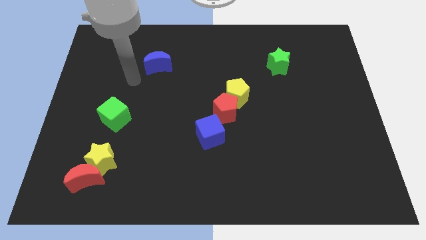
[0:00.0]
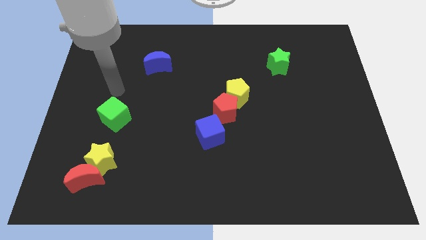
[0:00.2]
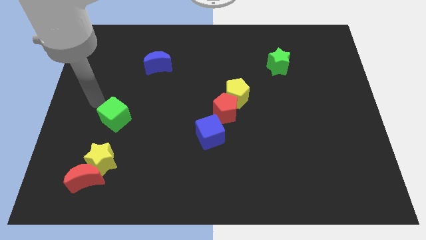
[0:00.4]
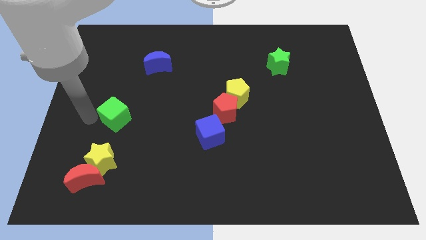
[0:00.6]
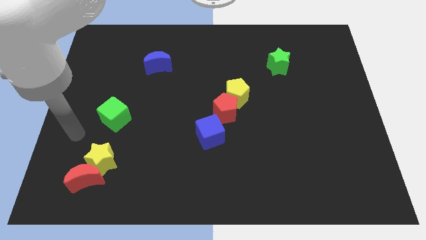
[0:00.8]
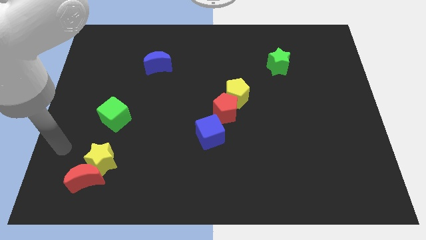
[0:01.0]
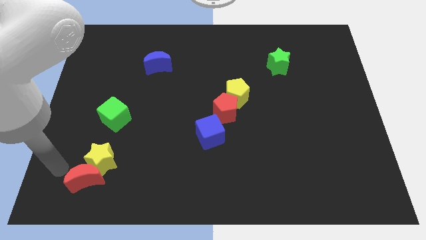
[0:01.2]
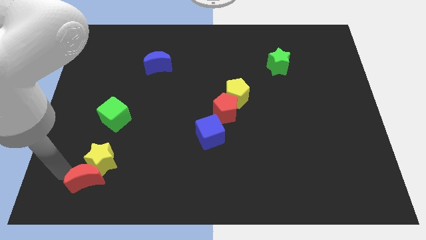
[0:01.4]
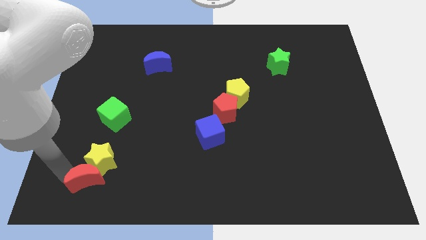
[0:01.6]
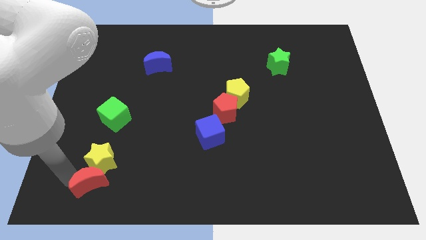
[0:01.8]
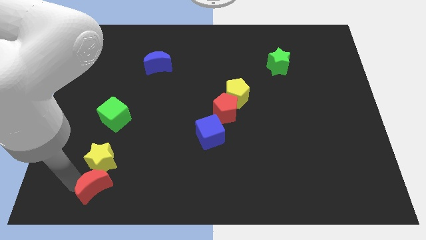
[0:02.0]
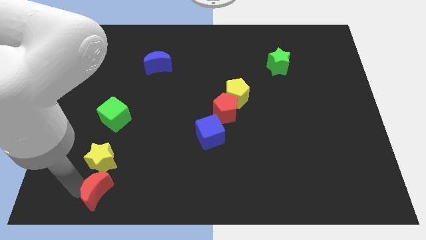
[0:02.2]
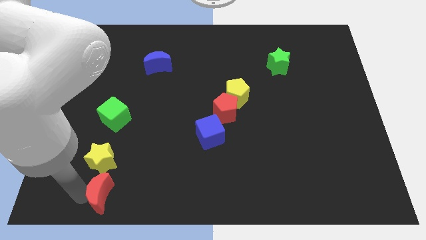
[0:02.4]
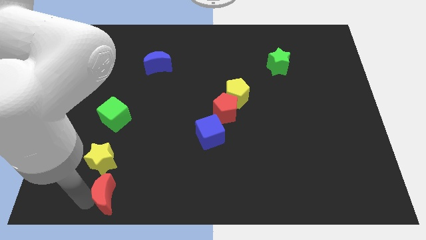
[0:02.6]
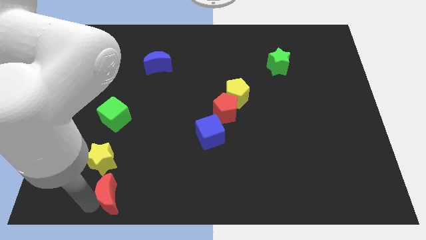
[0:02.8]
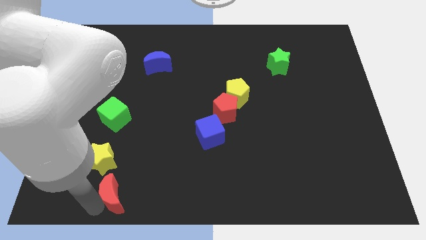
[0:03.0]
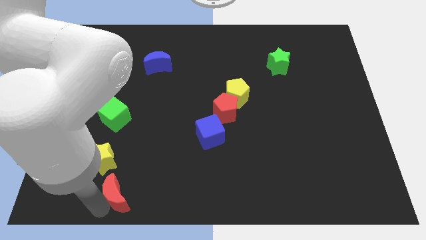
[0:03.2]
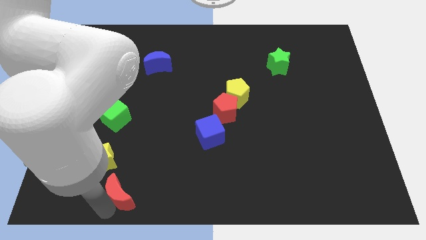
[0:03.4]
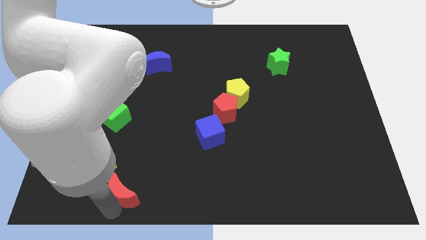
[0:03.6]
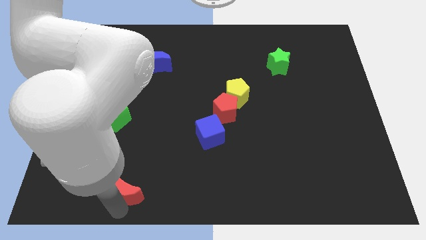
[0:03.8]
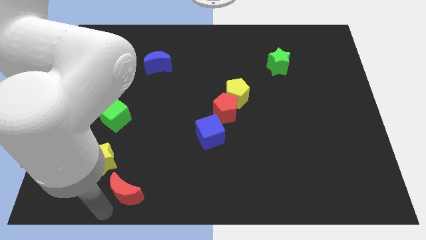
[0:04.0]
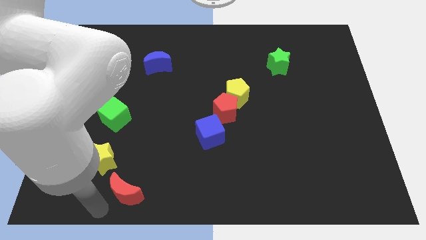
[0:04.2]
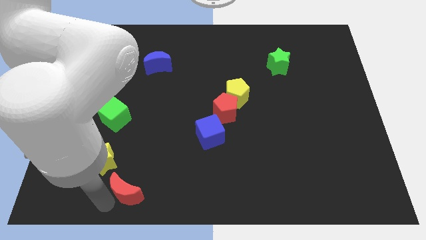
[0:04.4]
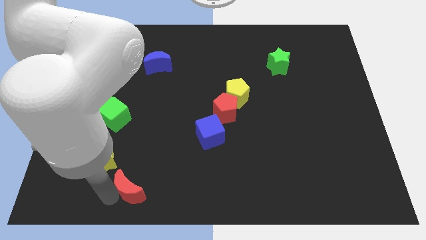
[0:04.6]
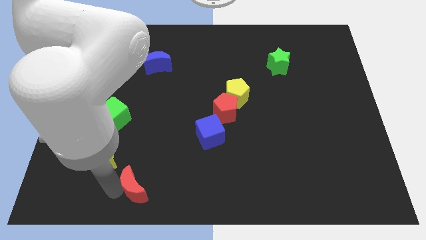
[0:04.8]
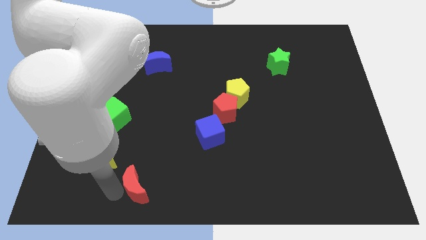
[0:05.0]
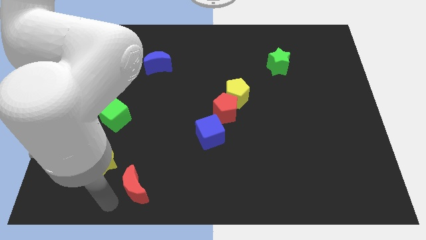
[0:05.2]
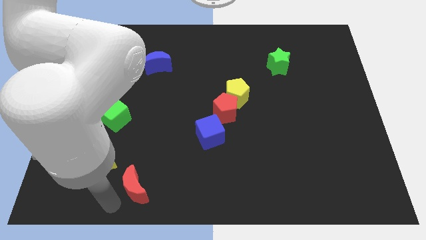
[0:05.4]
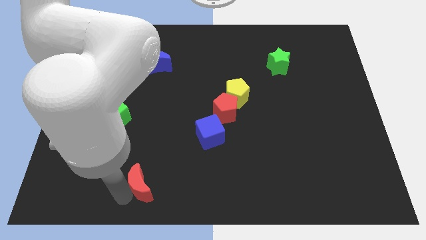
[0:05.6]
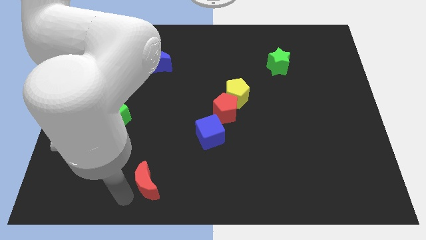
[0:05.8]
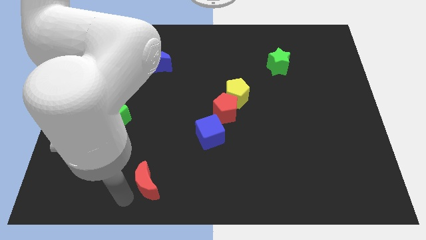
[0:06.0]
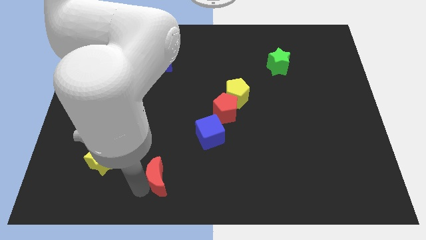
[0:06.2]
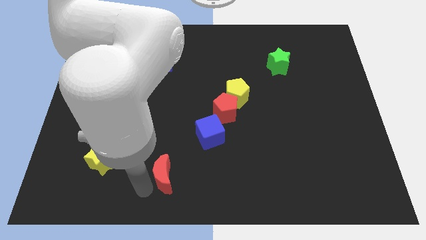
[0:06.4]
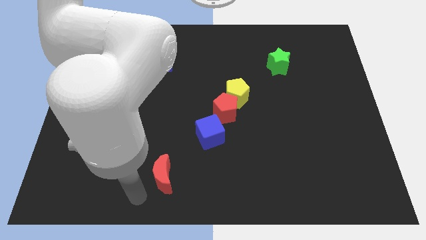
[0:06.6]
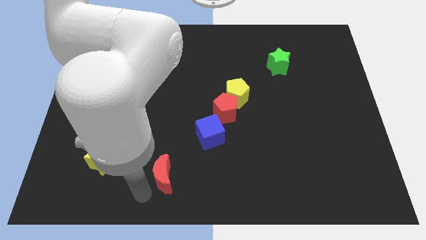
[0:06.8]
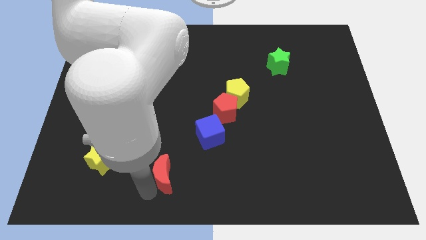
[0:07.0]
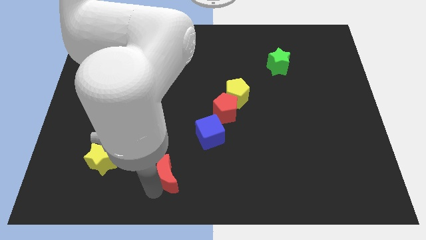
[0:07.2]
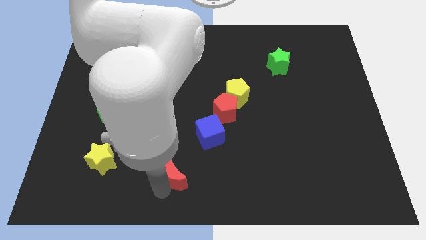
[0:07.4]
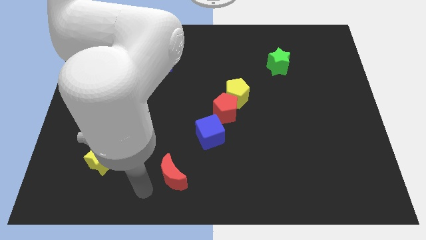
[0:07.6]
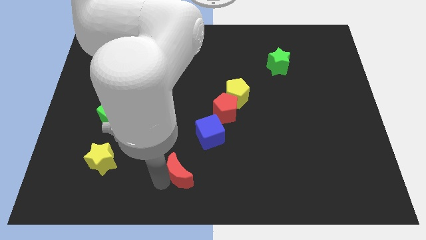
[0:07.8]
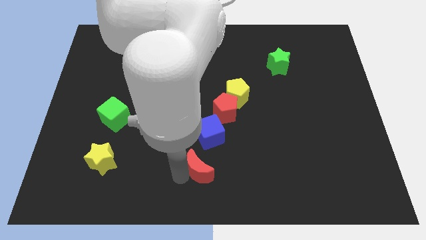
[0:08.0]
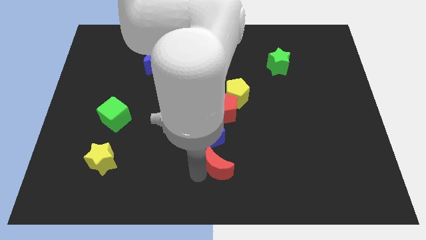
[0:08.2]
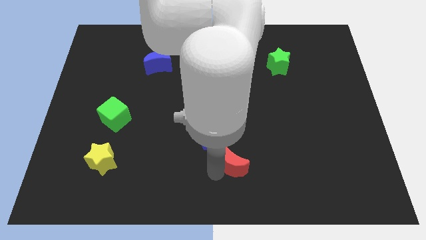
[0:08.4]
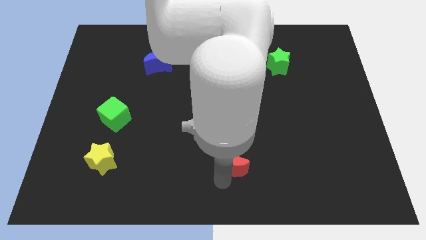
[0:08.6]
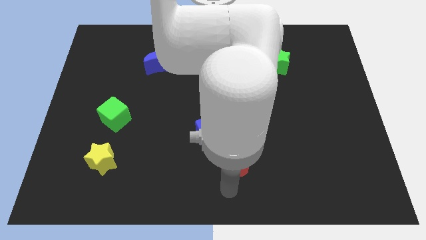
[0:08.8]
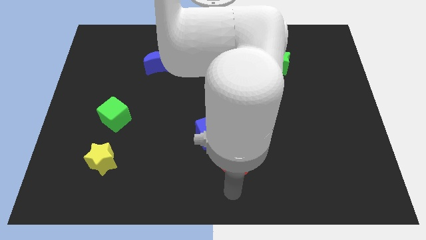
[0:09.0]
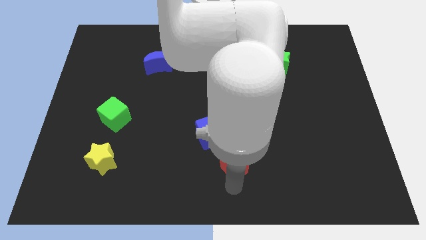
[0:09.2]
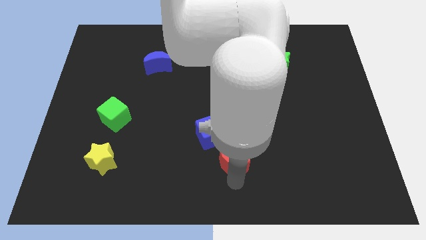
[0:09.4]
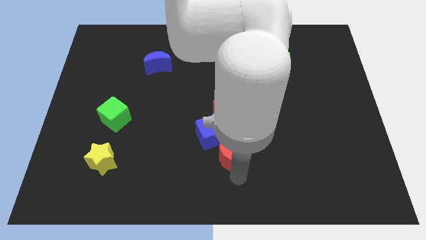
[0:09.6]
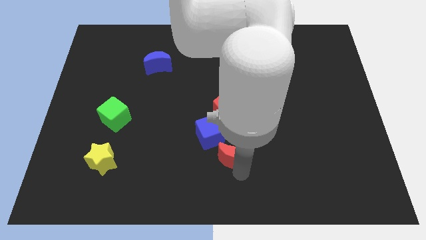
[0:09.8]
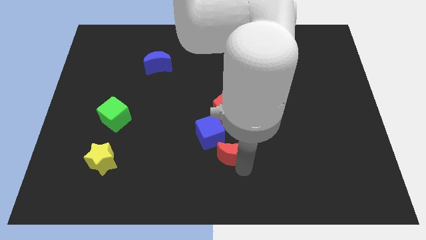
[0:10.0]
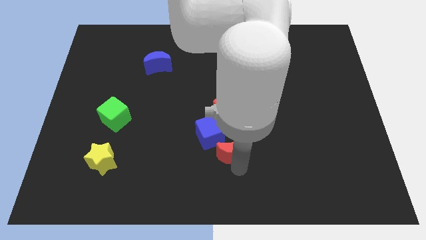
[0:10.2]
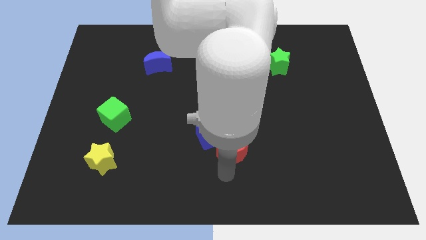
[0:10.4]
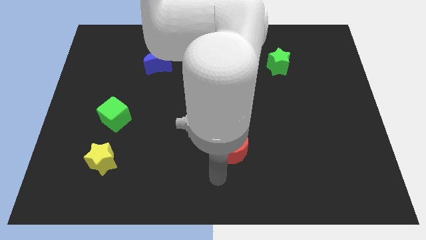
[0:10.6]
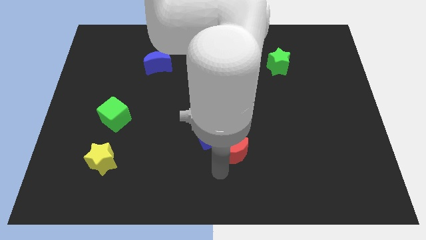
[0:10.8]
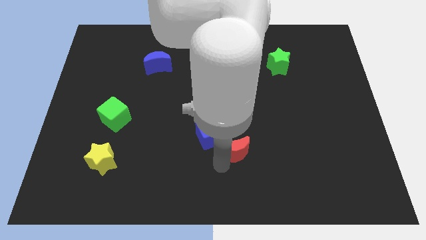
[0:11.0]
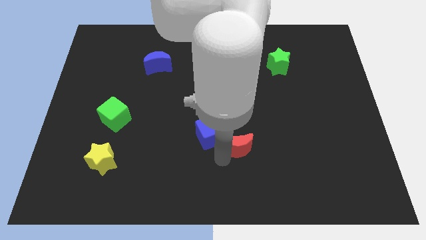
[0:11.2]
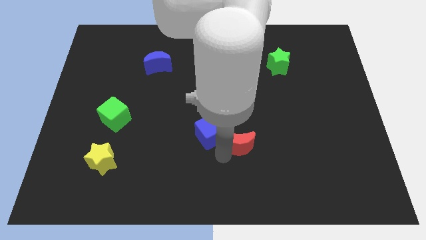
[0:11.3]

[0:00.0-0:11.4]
put the red moon to the bottom right side of the red pentagon
